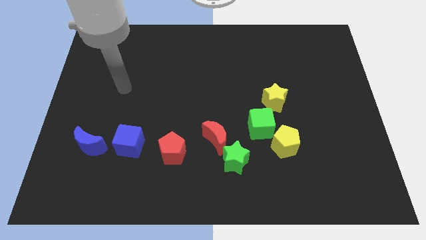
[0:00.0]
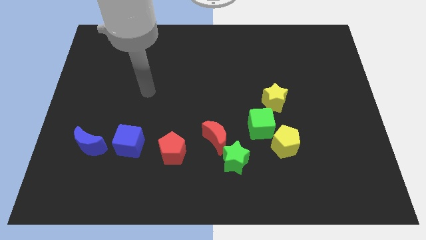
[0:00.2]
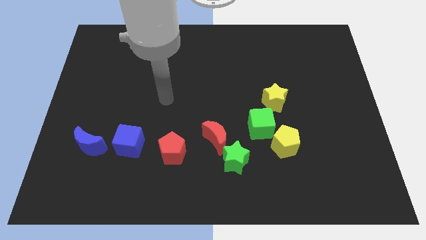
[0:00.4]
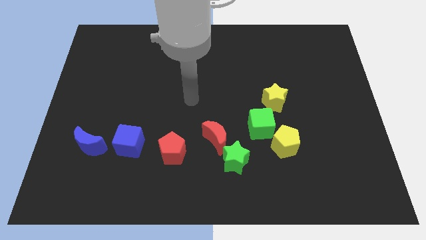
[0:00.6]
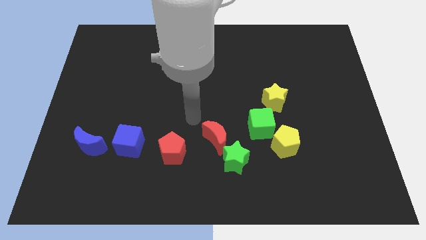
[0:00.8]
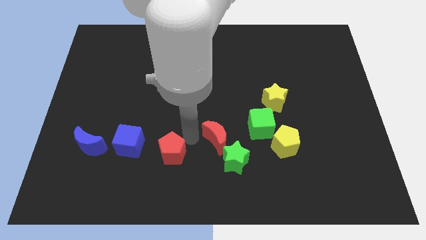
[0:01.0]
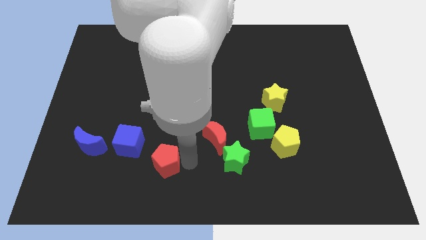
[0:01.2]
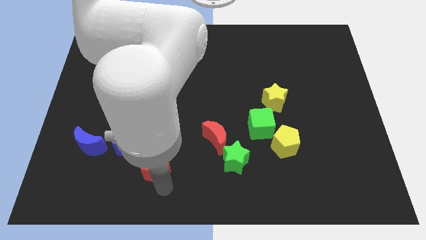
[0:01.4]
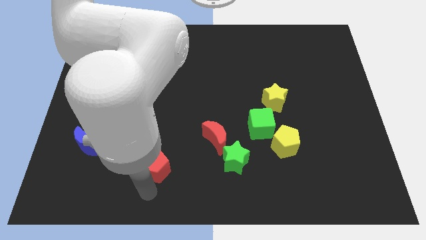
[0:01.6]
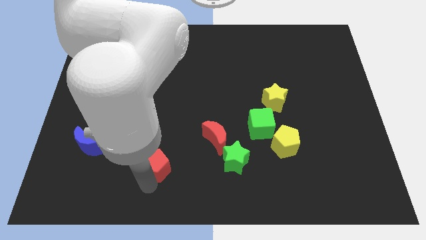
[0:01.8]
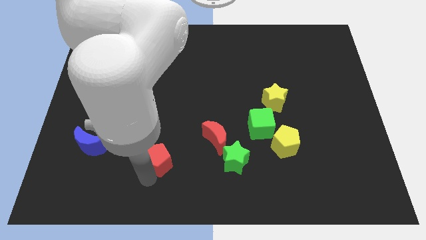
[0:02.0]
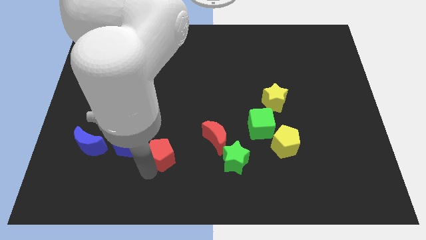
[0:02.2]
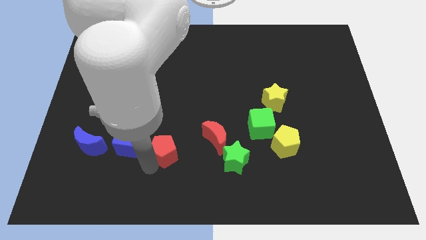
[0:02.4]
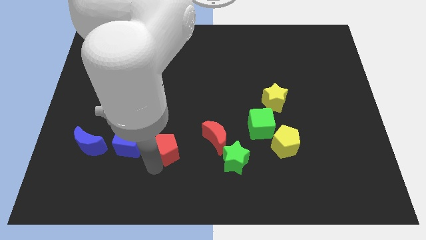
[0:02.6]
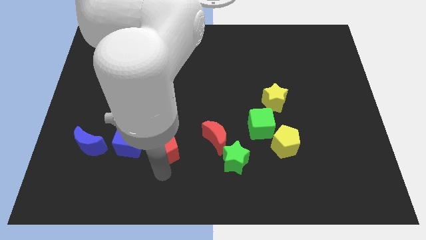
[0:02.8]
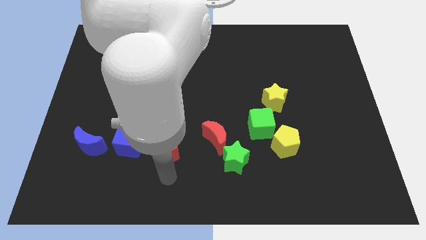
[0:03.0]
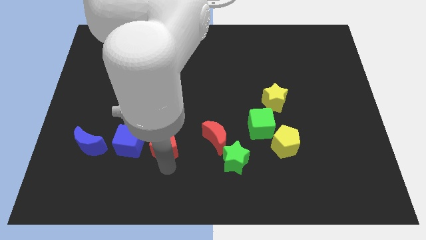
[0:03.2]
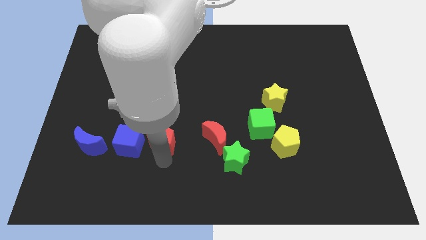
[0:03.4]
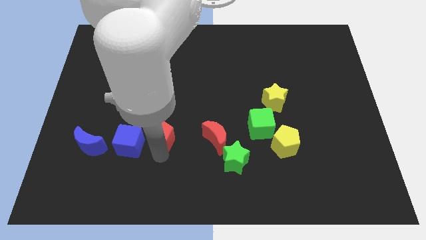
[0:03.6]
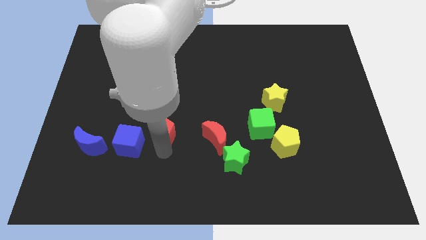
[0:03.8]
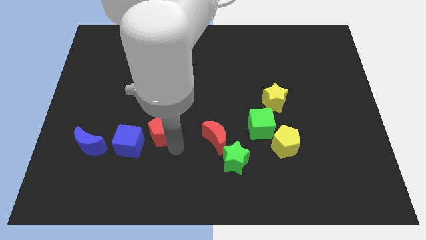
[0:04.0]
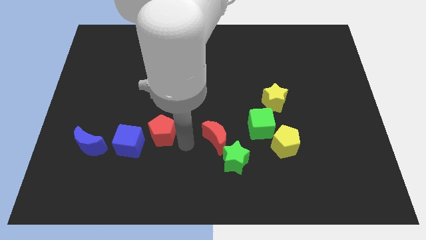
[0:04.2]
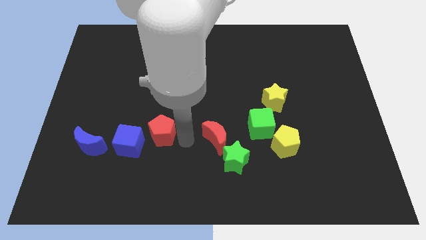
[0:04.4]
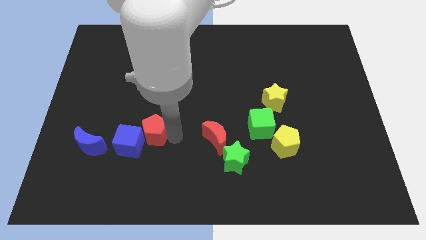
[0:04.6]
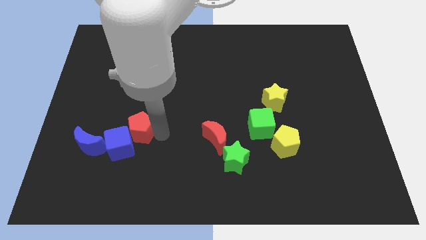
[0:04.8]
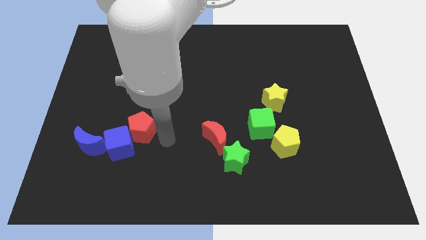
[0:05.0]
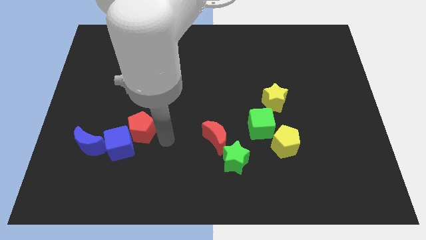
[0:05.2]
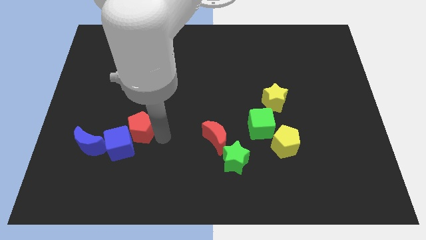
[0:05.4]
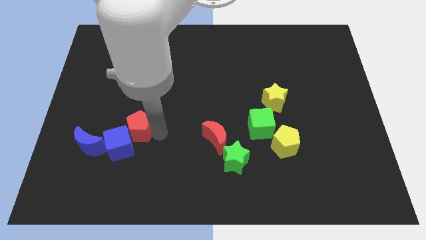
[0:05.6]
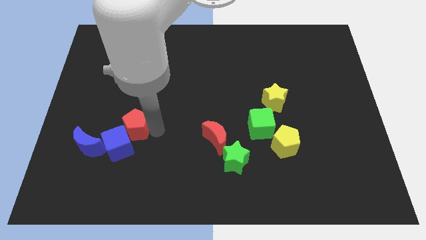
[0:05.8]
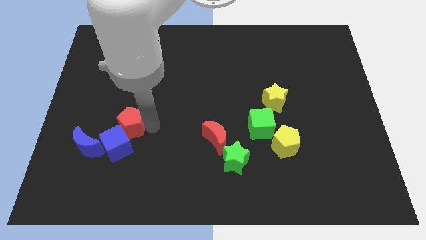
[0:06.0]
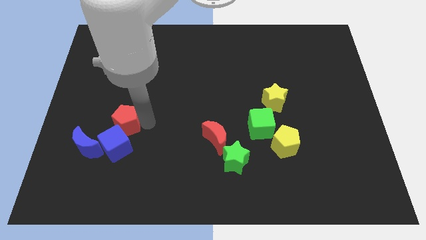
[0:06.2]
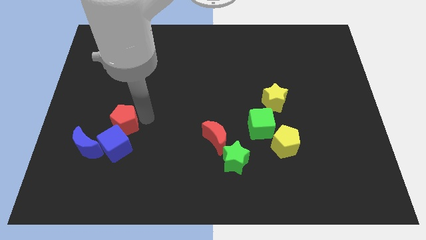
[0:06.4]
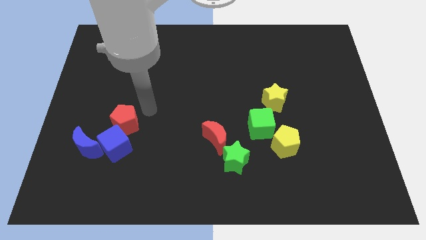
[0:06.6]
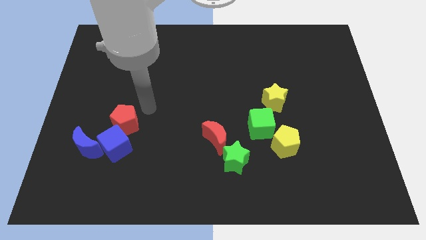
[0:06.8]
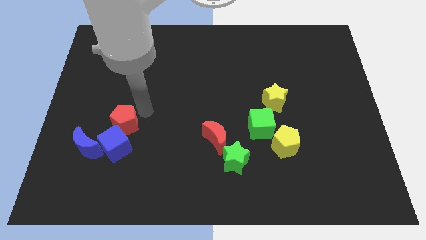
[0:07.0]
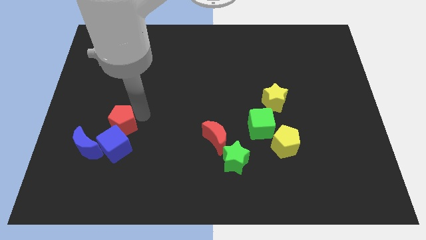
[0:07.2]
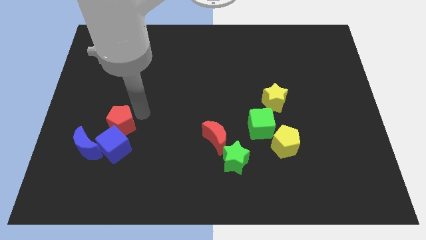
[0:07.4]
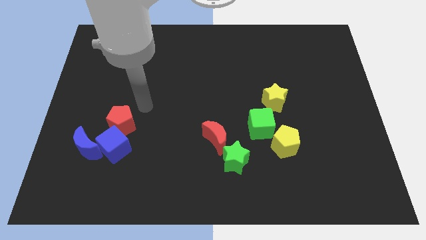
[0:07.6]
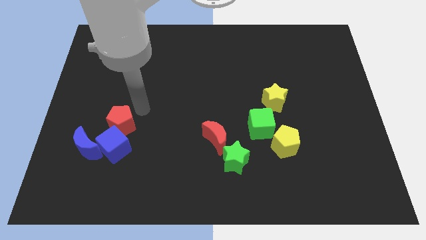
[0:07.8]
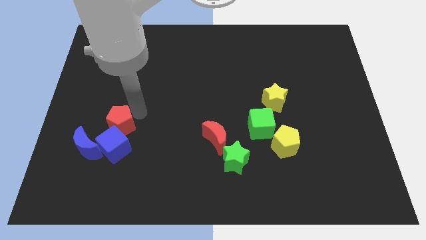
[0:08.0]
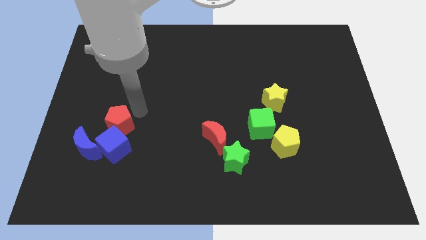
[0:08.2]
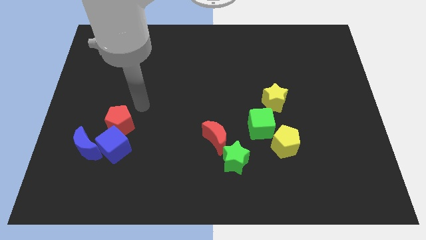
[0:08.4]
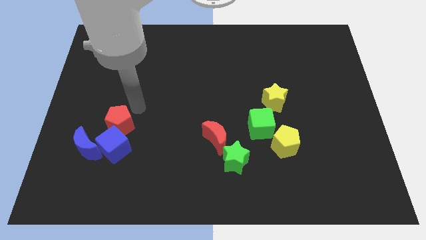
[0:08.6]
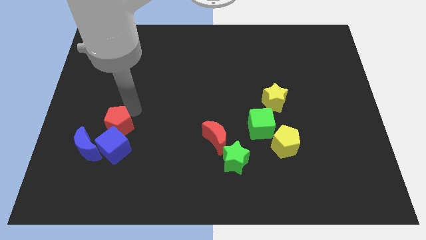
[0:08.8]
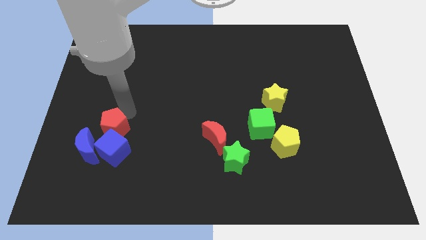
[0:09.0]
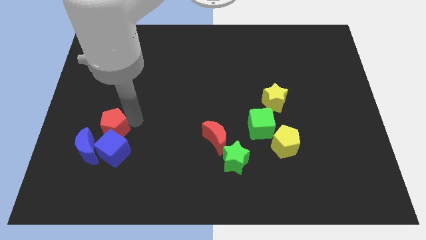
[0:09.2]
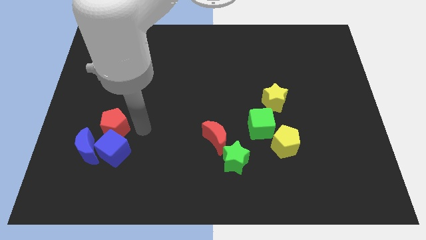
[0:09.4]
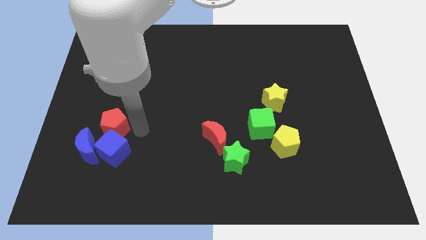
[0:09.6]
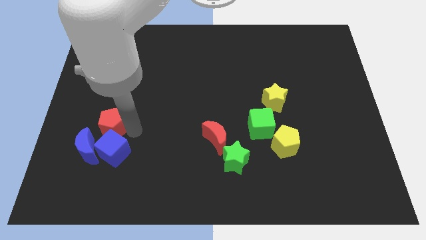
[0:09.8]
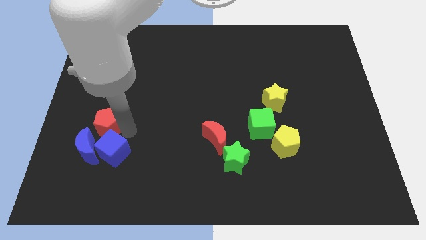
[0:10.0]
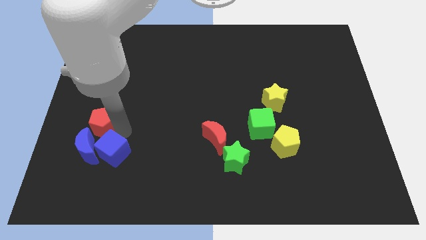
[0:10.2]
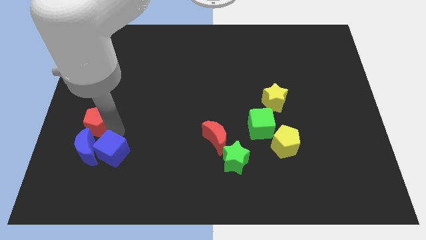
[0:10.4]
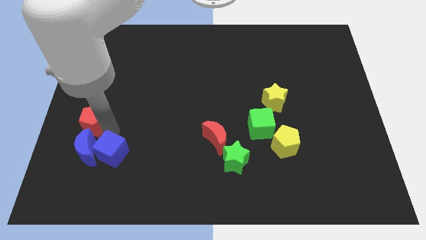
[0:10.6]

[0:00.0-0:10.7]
put the red pentagon to the center left

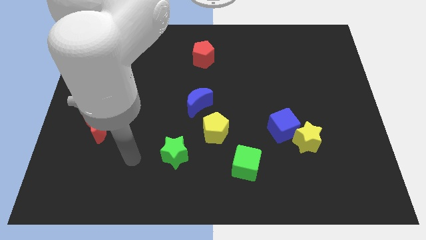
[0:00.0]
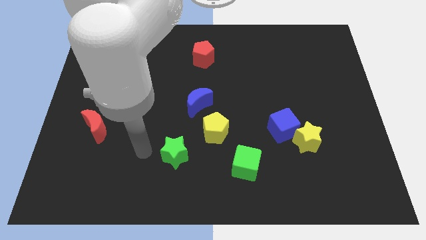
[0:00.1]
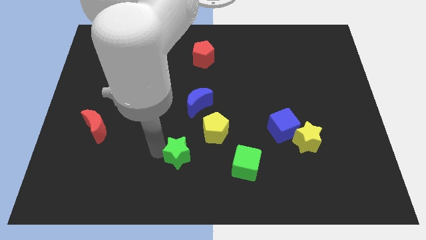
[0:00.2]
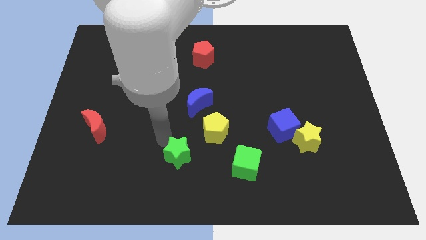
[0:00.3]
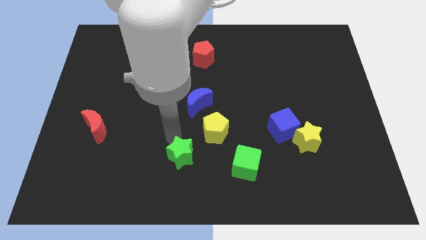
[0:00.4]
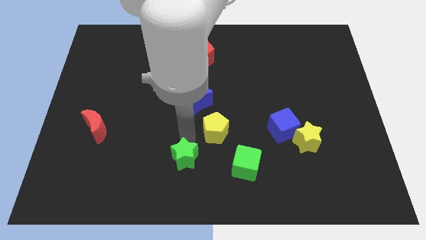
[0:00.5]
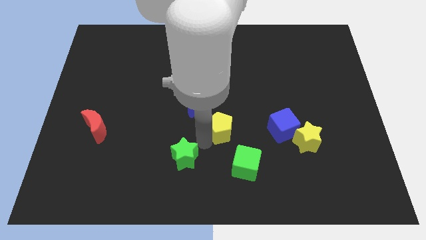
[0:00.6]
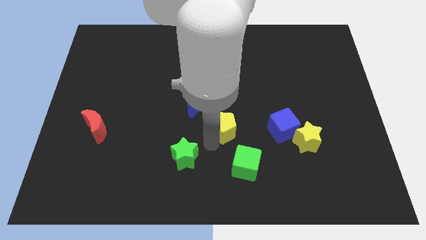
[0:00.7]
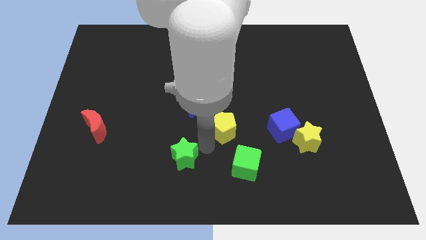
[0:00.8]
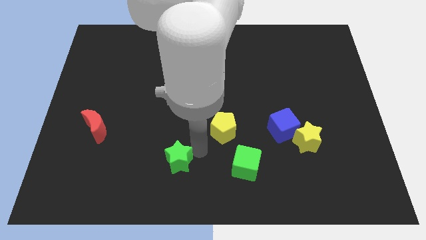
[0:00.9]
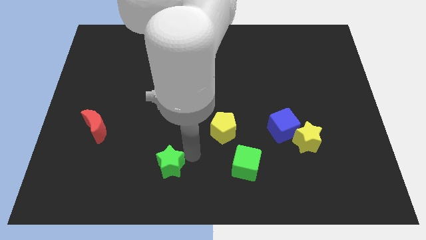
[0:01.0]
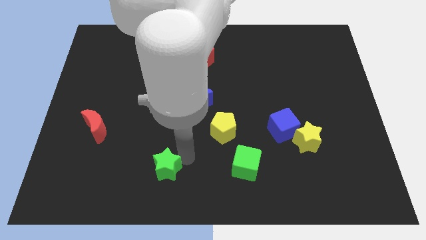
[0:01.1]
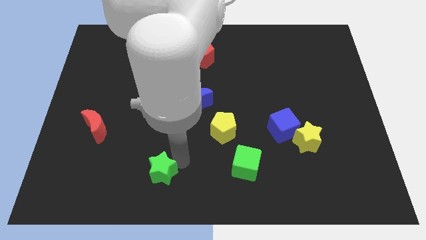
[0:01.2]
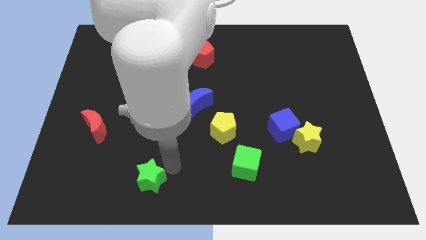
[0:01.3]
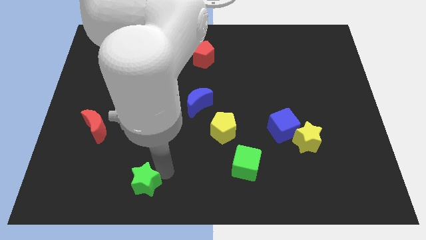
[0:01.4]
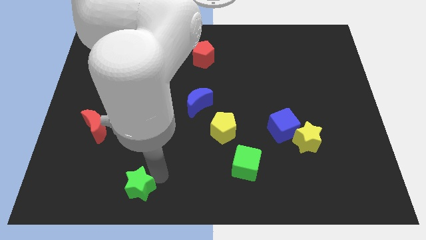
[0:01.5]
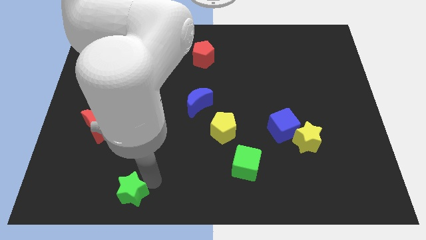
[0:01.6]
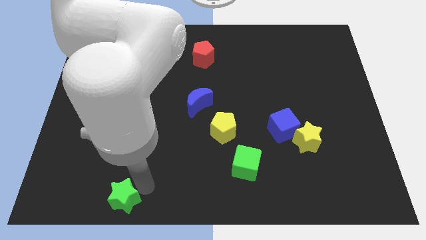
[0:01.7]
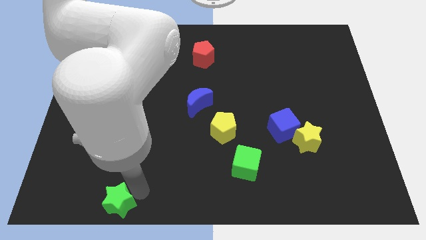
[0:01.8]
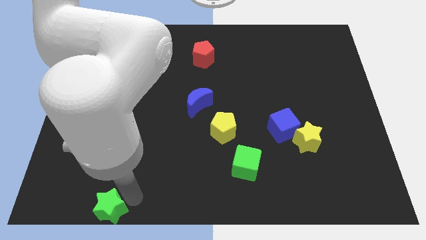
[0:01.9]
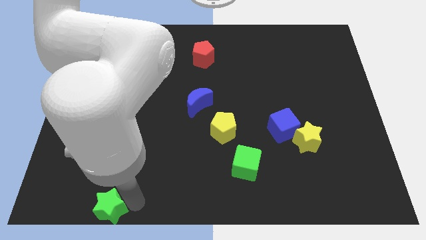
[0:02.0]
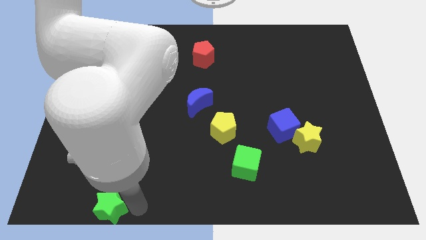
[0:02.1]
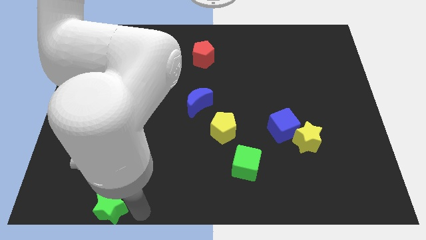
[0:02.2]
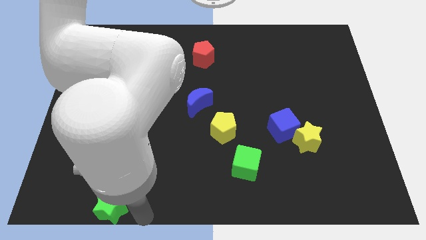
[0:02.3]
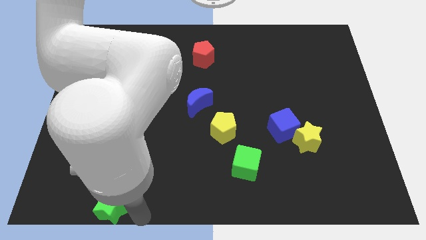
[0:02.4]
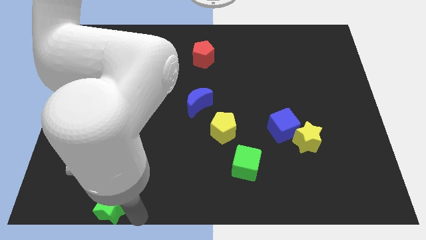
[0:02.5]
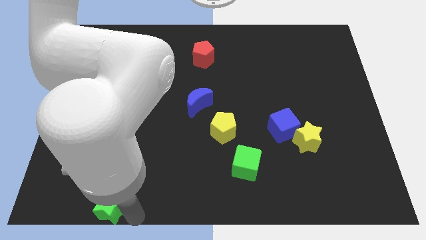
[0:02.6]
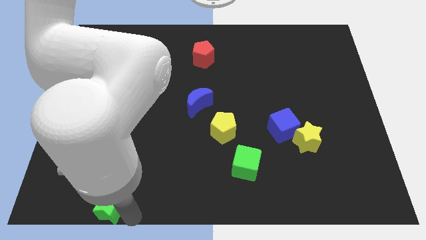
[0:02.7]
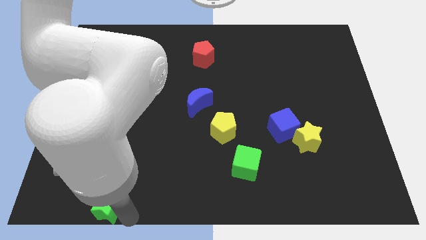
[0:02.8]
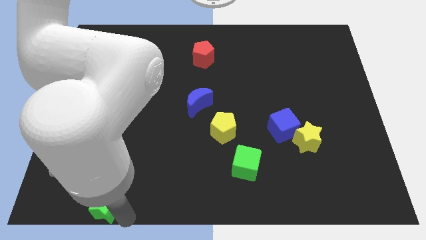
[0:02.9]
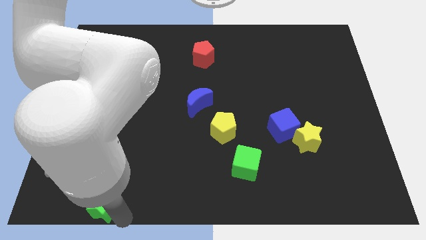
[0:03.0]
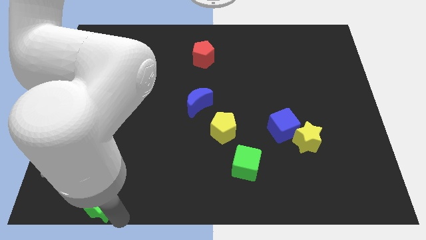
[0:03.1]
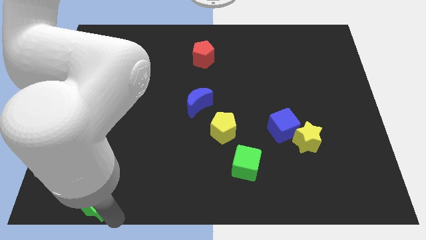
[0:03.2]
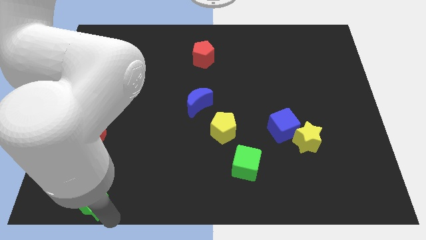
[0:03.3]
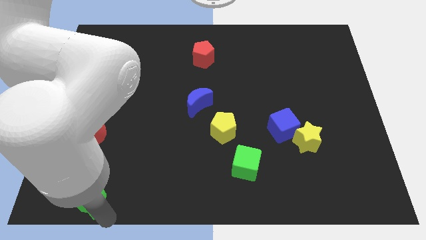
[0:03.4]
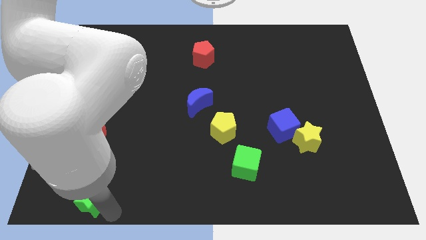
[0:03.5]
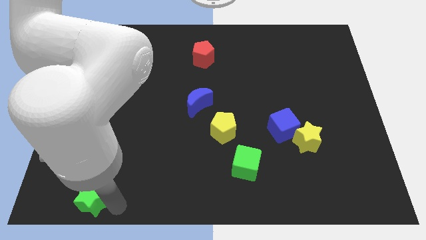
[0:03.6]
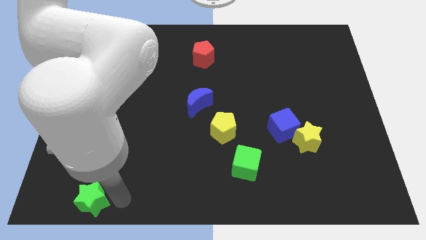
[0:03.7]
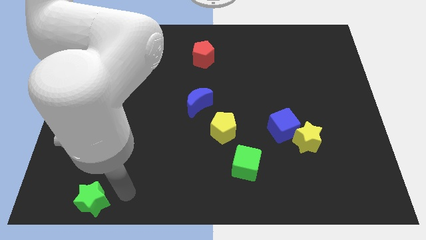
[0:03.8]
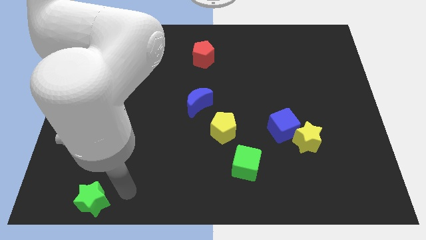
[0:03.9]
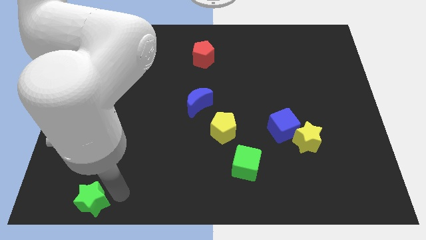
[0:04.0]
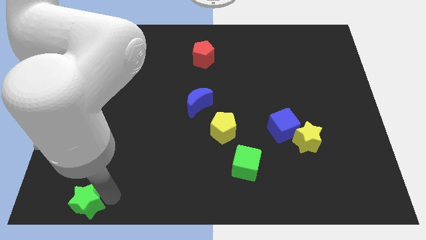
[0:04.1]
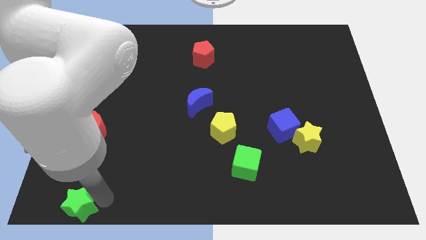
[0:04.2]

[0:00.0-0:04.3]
move the green star to the bottom left of the board
